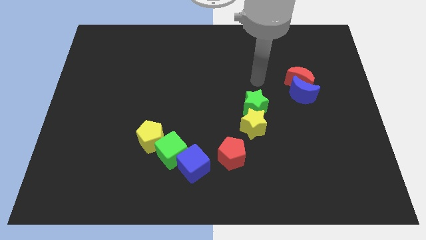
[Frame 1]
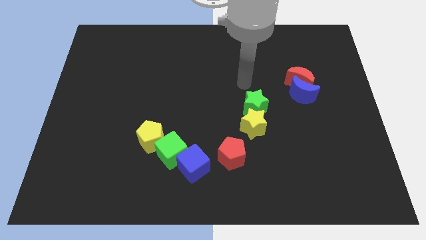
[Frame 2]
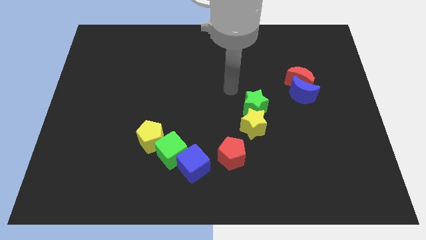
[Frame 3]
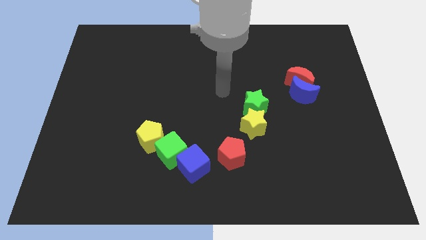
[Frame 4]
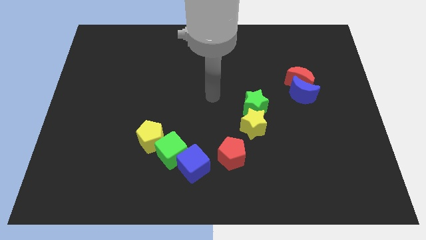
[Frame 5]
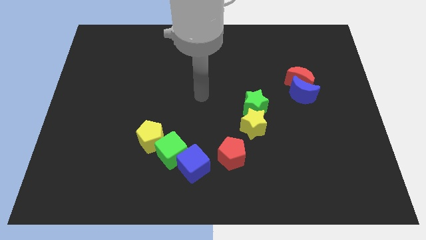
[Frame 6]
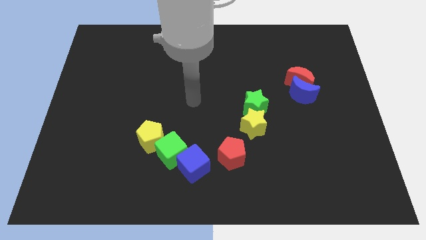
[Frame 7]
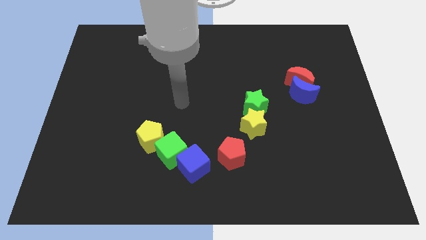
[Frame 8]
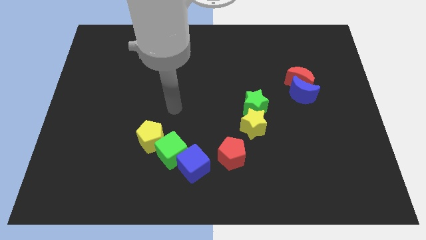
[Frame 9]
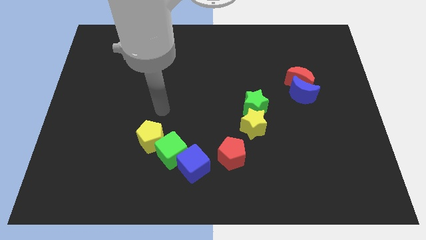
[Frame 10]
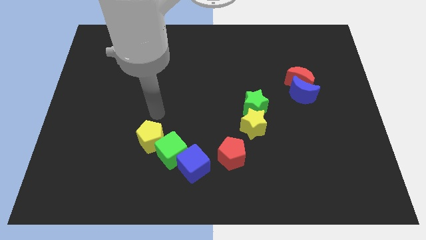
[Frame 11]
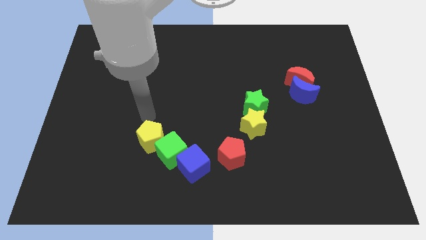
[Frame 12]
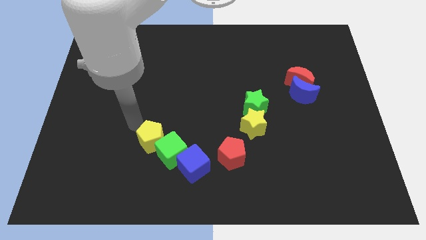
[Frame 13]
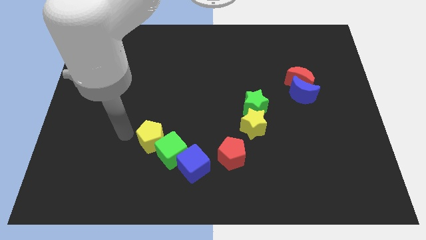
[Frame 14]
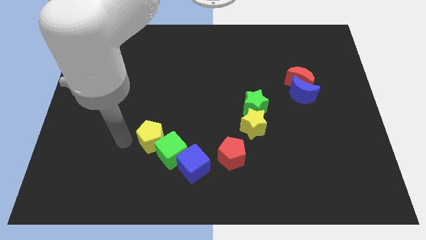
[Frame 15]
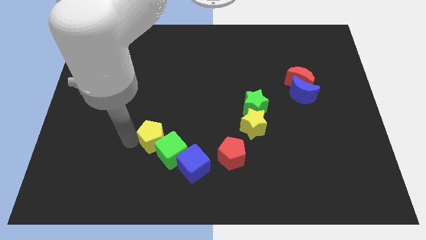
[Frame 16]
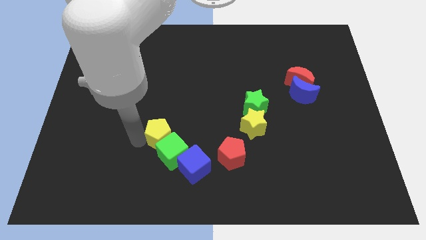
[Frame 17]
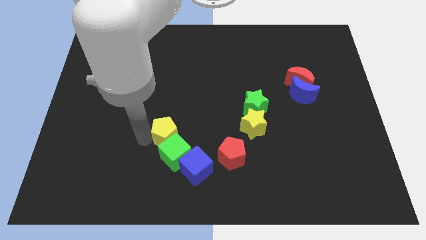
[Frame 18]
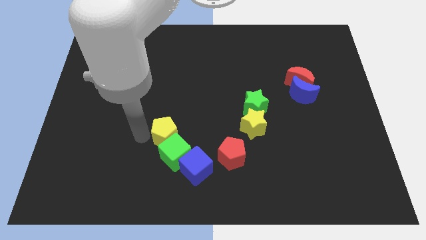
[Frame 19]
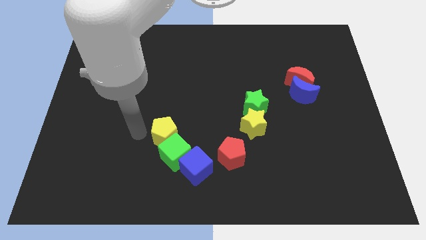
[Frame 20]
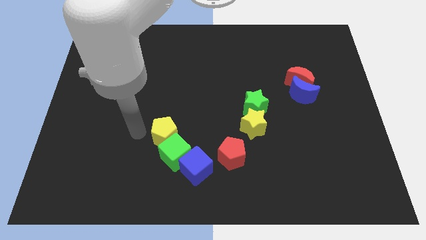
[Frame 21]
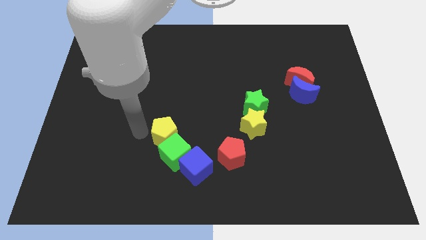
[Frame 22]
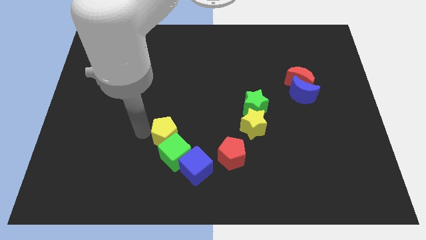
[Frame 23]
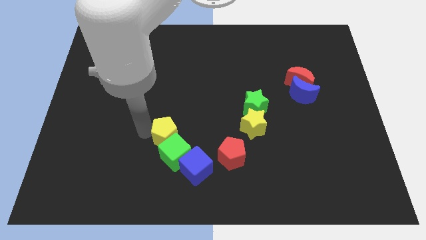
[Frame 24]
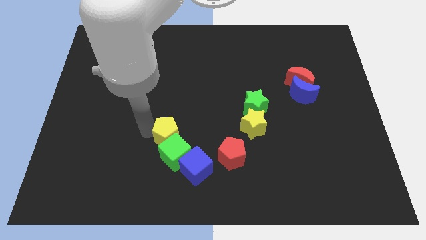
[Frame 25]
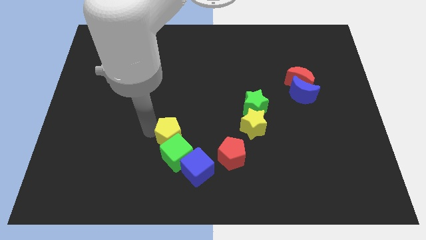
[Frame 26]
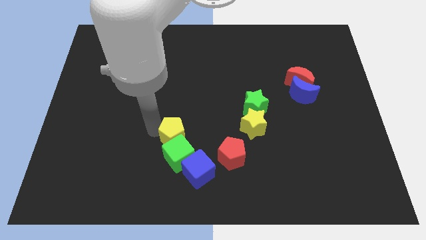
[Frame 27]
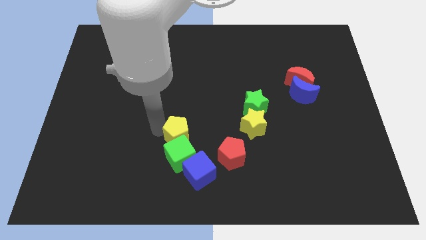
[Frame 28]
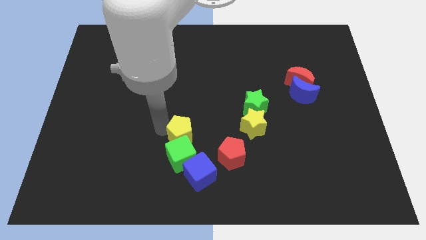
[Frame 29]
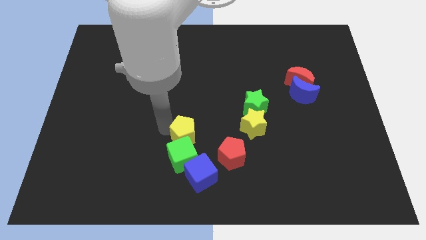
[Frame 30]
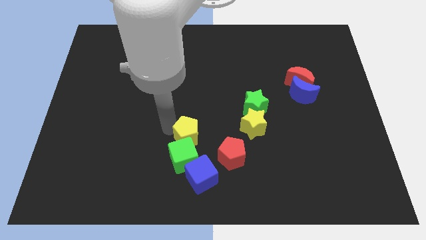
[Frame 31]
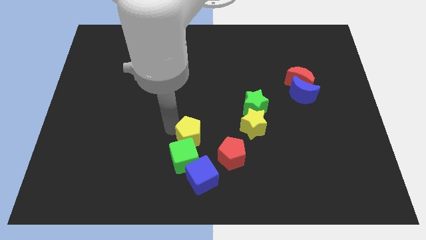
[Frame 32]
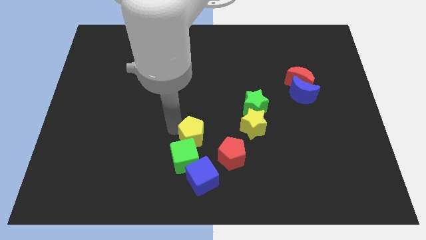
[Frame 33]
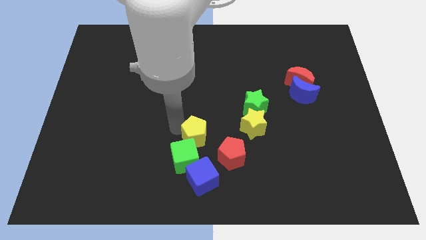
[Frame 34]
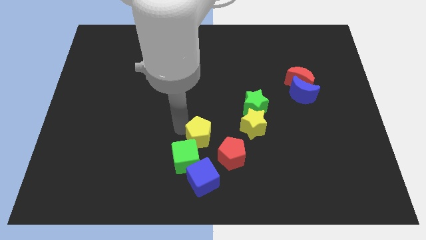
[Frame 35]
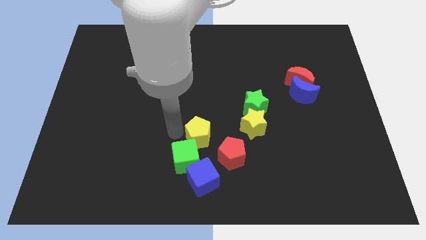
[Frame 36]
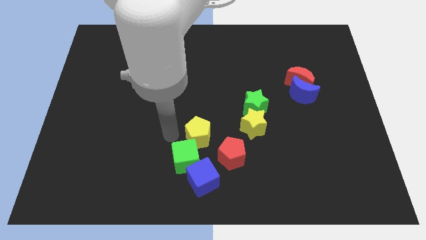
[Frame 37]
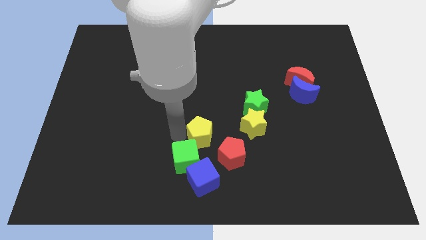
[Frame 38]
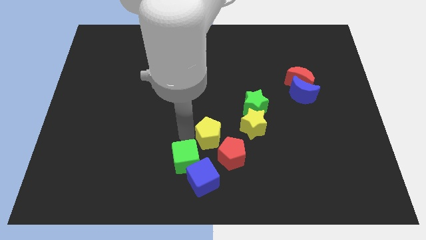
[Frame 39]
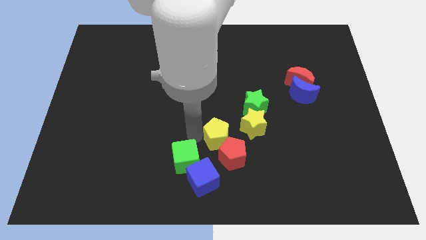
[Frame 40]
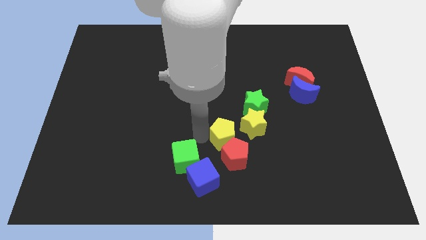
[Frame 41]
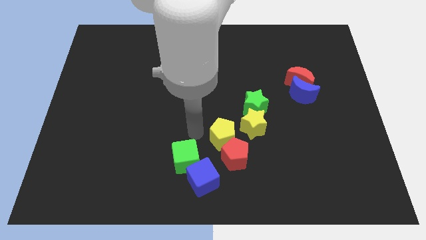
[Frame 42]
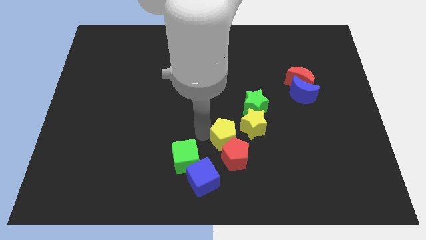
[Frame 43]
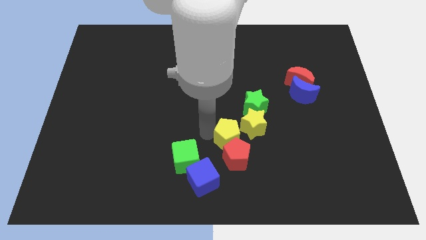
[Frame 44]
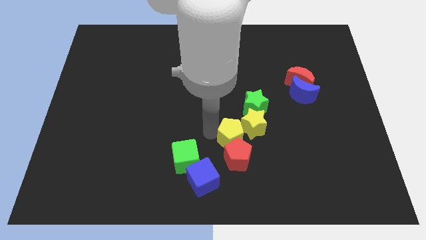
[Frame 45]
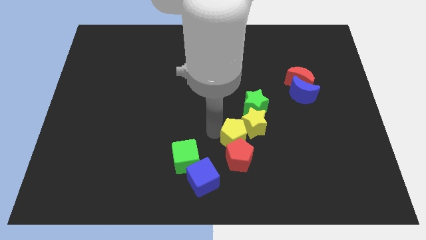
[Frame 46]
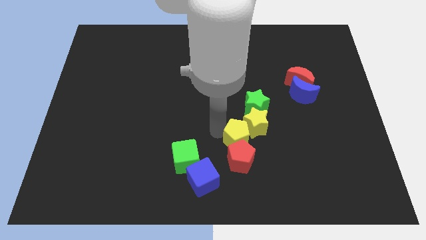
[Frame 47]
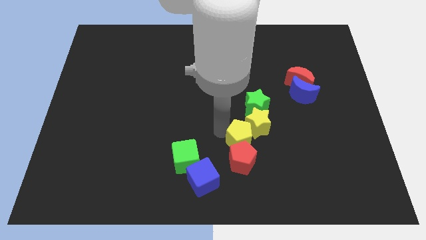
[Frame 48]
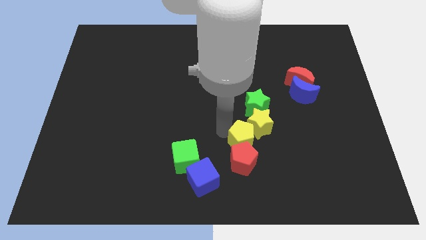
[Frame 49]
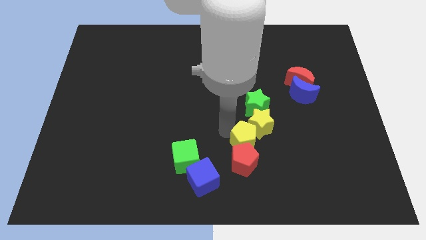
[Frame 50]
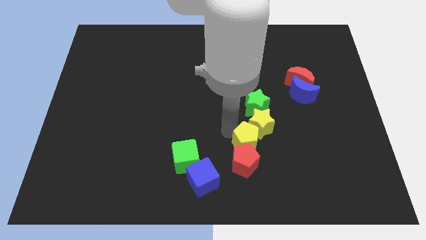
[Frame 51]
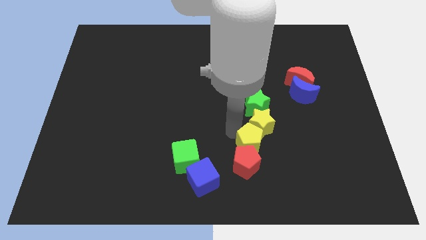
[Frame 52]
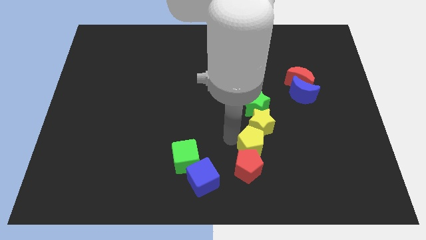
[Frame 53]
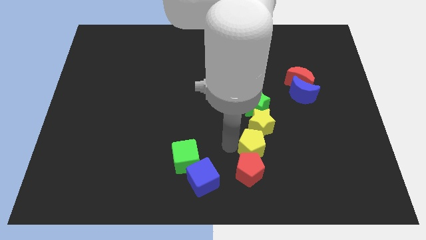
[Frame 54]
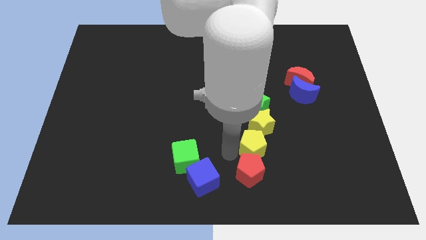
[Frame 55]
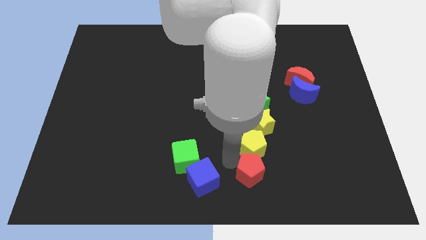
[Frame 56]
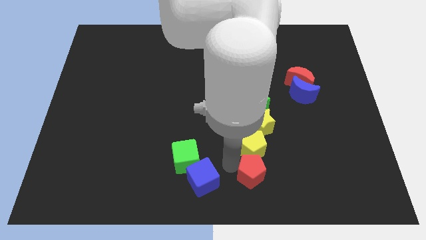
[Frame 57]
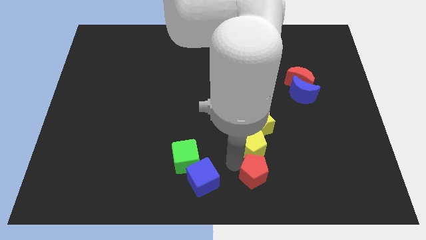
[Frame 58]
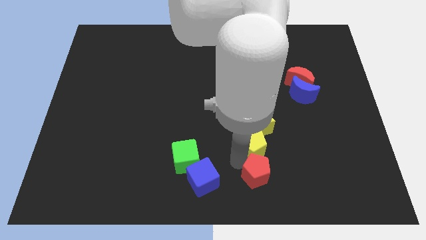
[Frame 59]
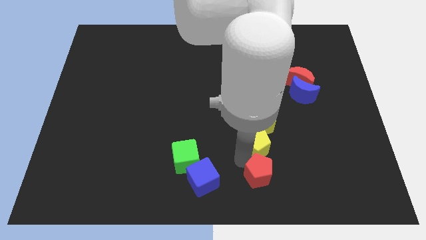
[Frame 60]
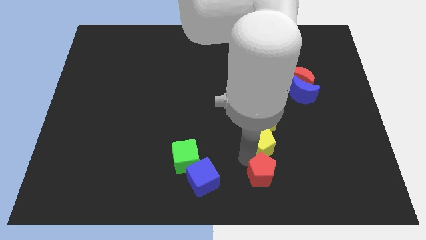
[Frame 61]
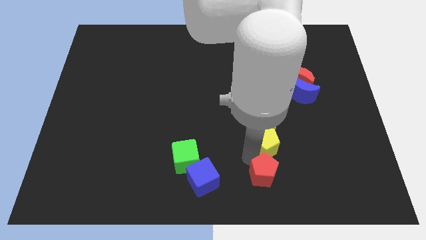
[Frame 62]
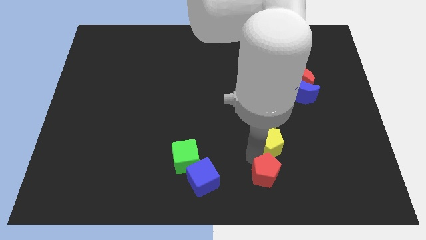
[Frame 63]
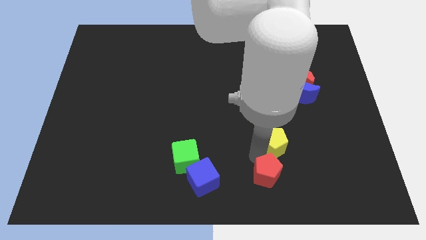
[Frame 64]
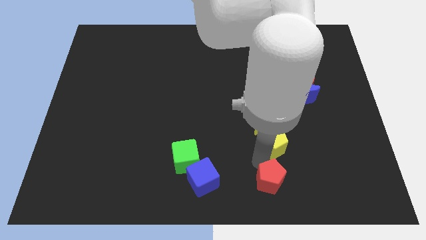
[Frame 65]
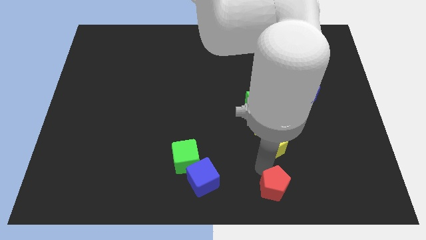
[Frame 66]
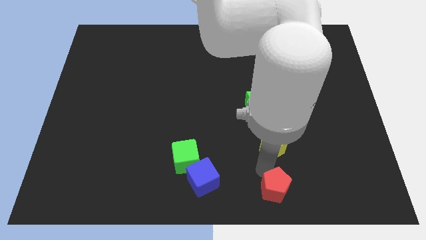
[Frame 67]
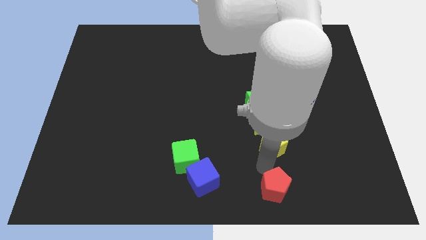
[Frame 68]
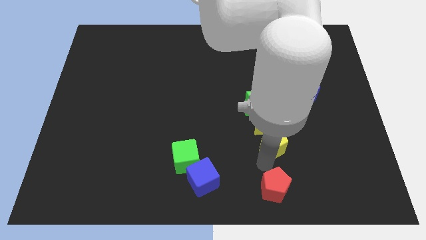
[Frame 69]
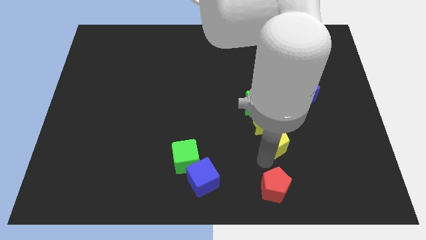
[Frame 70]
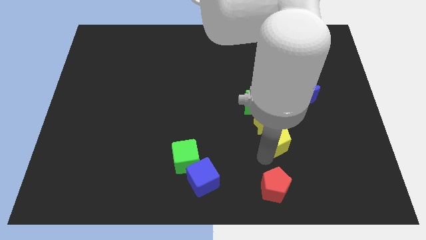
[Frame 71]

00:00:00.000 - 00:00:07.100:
put the yellow pentagon to the bottom right side of the green star

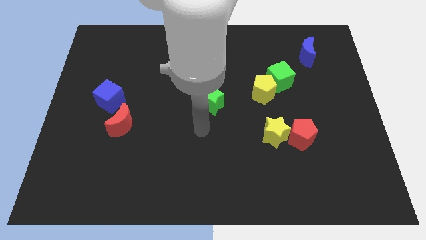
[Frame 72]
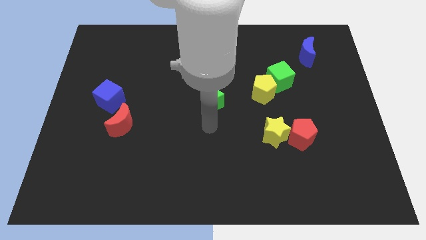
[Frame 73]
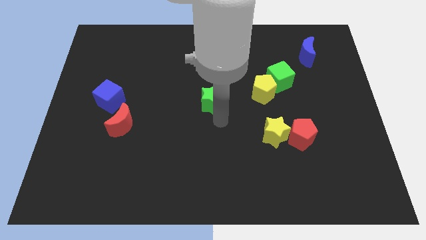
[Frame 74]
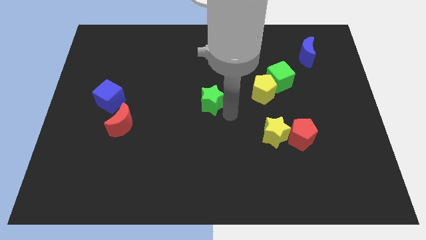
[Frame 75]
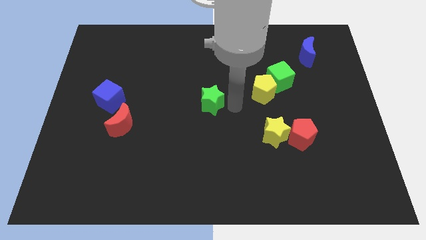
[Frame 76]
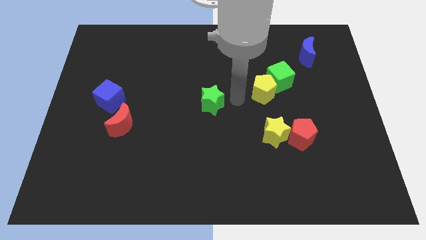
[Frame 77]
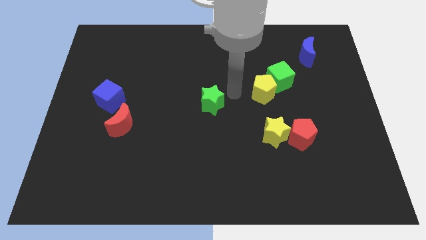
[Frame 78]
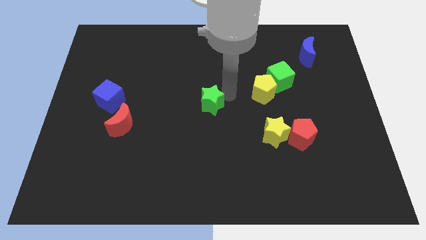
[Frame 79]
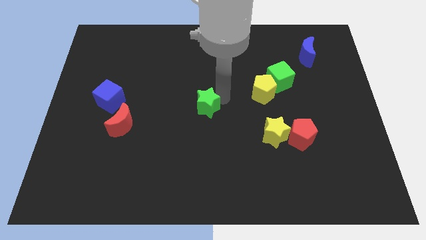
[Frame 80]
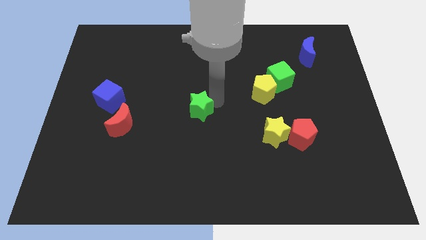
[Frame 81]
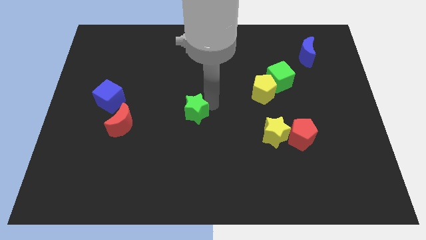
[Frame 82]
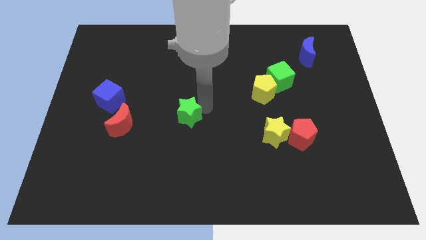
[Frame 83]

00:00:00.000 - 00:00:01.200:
slide the green star just right of the red moon
